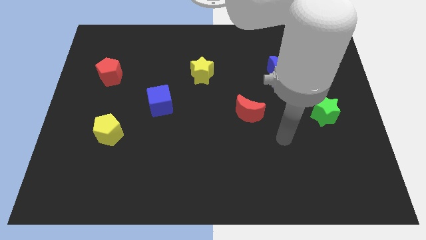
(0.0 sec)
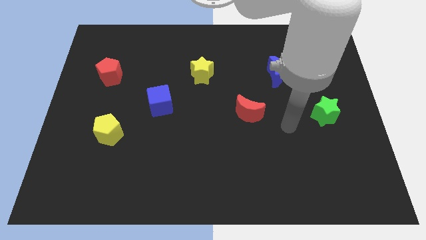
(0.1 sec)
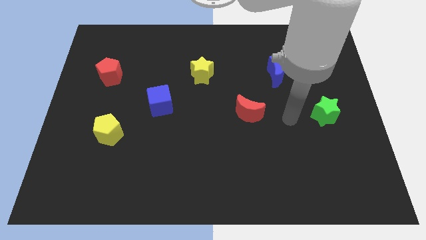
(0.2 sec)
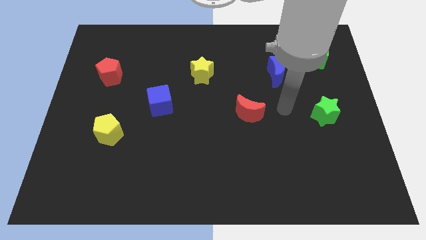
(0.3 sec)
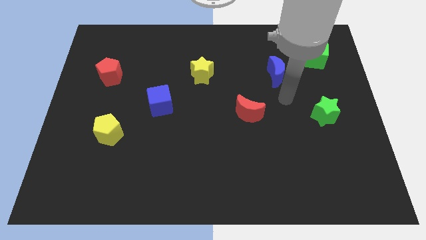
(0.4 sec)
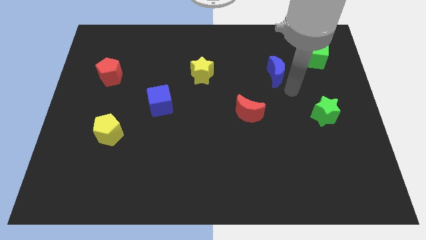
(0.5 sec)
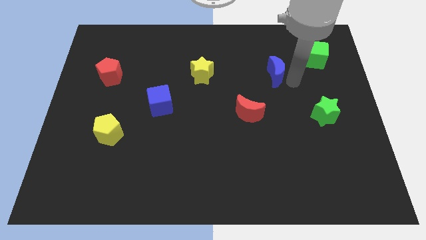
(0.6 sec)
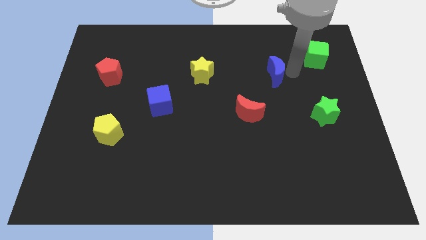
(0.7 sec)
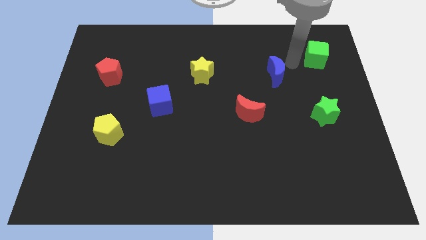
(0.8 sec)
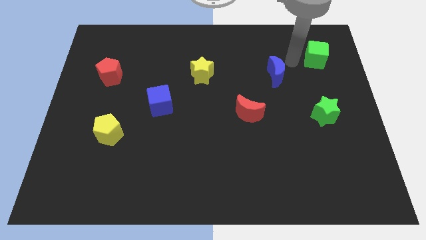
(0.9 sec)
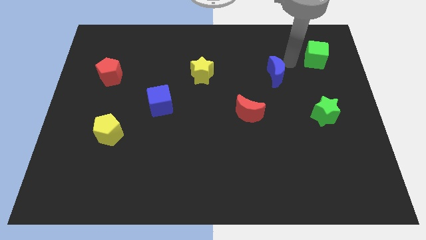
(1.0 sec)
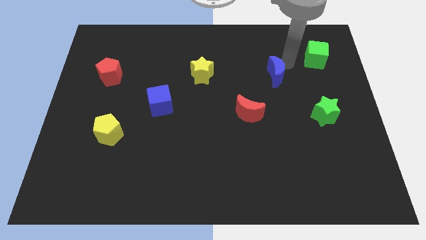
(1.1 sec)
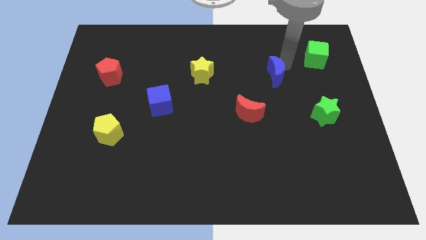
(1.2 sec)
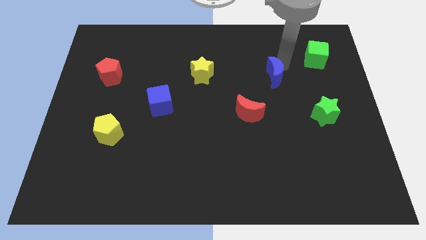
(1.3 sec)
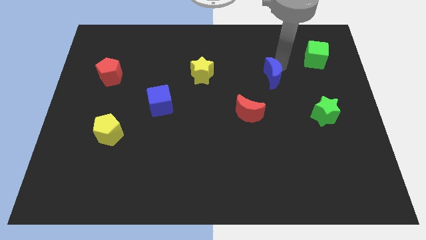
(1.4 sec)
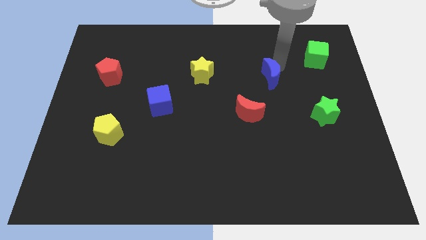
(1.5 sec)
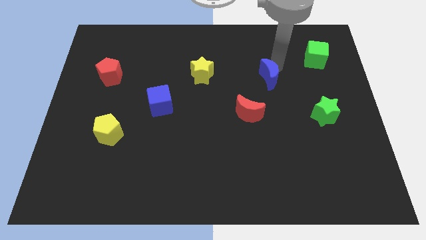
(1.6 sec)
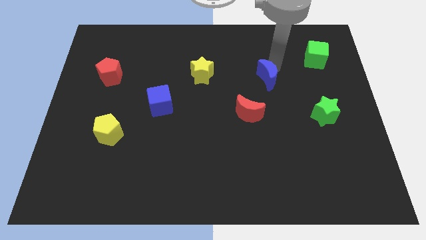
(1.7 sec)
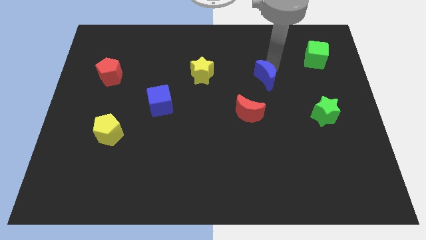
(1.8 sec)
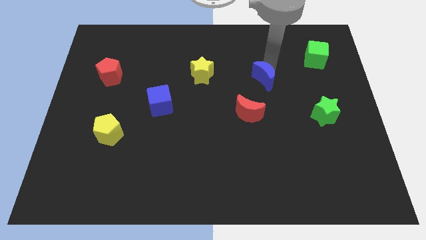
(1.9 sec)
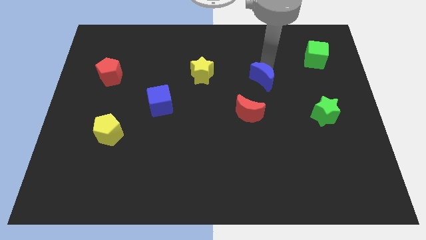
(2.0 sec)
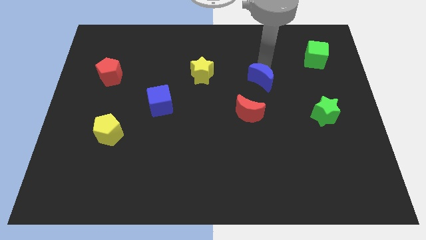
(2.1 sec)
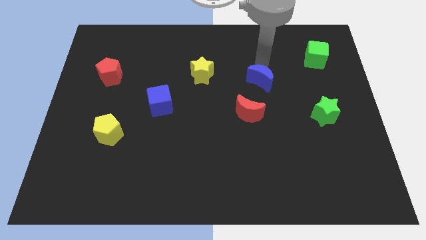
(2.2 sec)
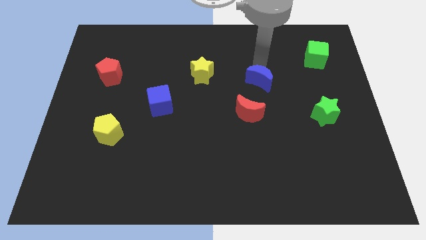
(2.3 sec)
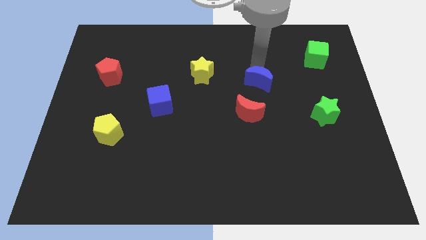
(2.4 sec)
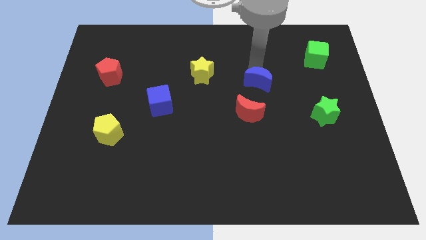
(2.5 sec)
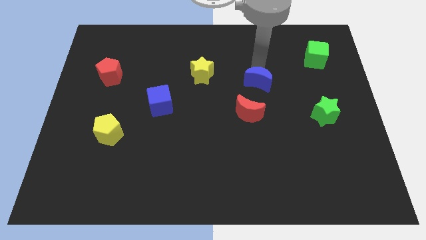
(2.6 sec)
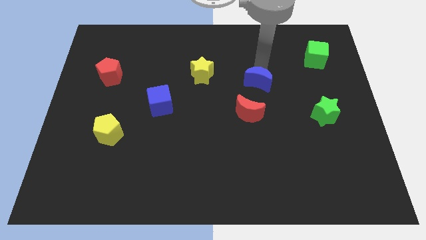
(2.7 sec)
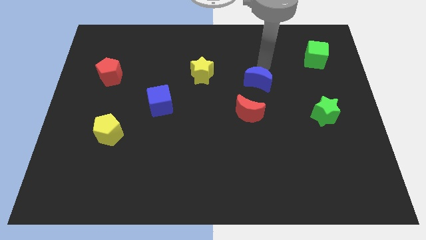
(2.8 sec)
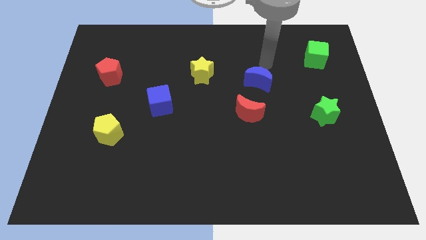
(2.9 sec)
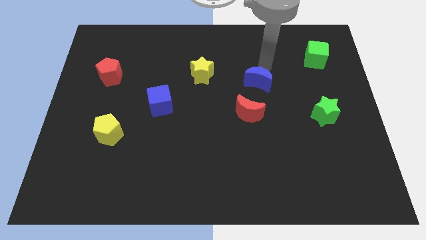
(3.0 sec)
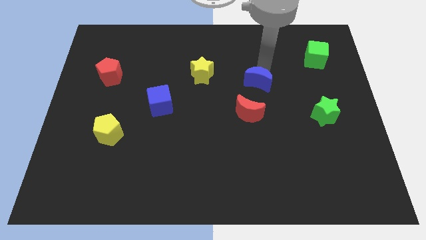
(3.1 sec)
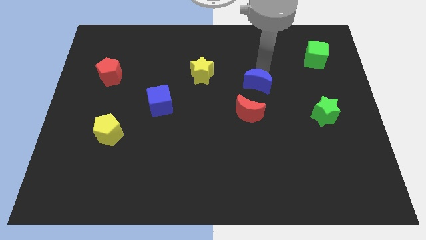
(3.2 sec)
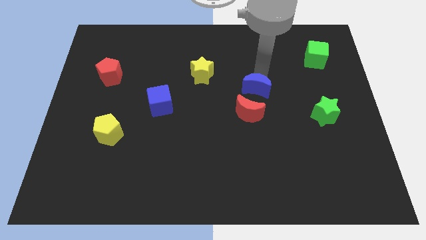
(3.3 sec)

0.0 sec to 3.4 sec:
move the blue moon a bit down and left

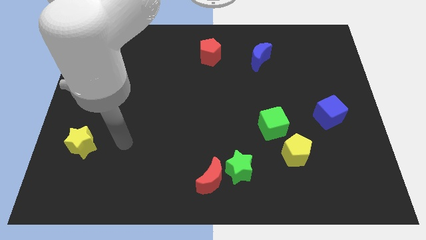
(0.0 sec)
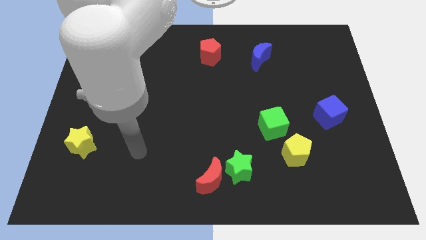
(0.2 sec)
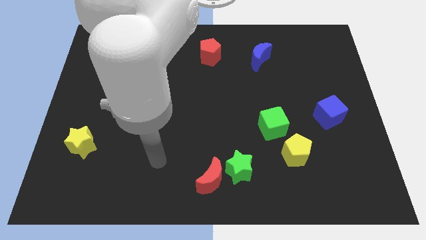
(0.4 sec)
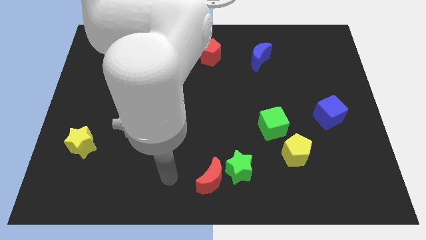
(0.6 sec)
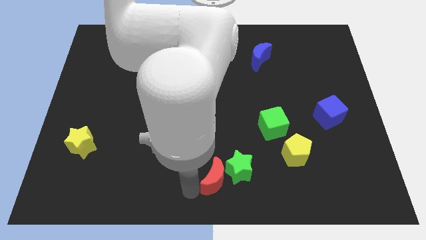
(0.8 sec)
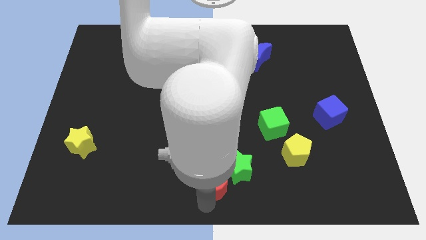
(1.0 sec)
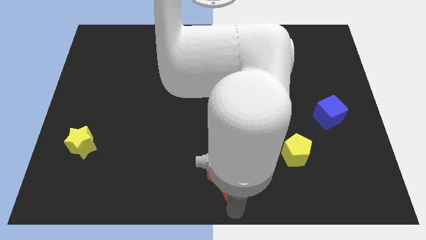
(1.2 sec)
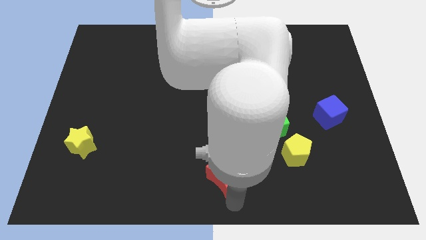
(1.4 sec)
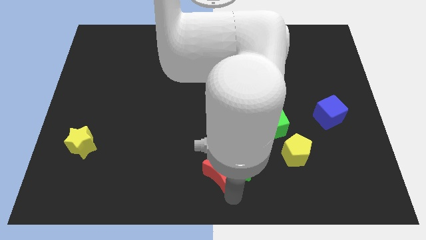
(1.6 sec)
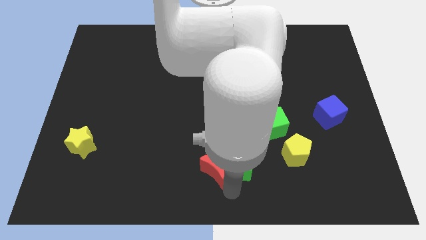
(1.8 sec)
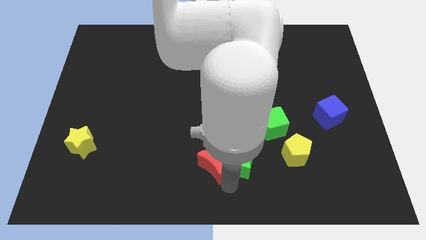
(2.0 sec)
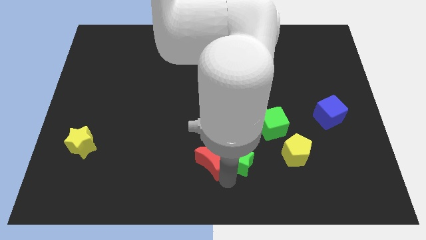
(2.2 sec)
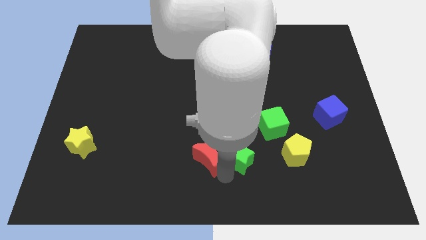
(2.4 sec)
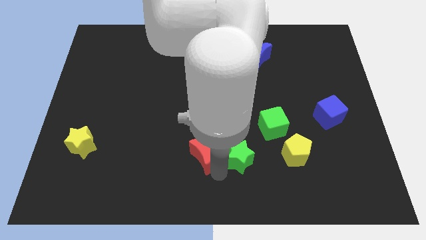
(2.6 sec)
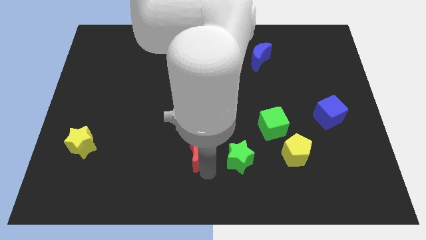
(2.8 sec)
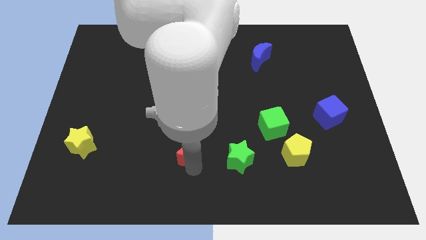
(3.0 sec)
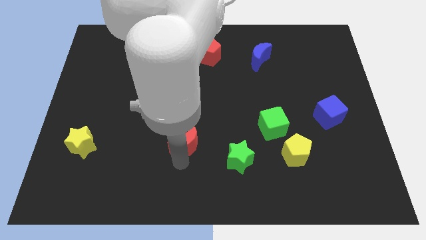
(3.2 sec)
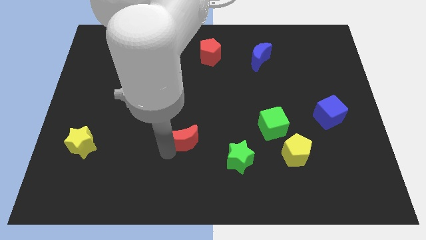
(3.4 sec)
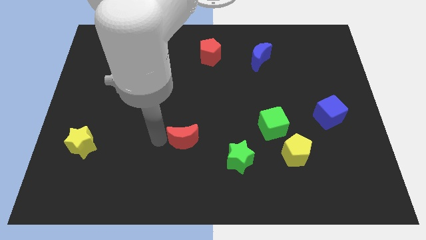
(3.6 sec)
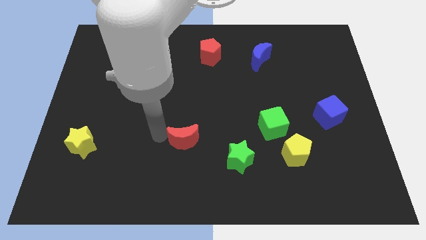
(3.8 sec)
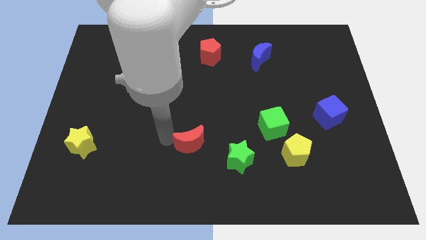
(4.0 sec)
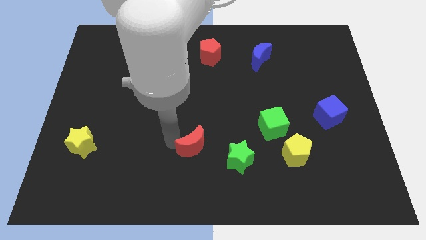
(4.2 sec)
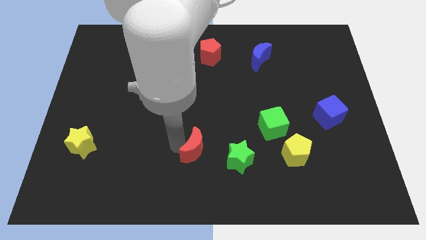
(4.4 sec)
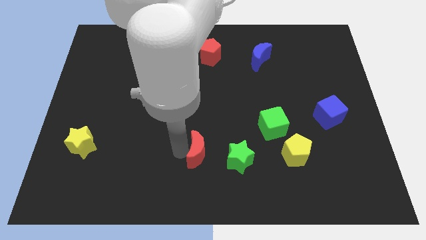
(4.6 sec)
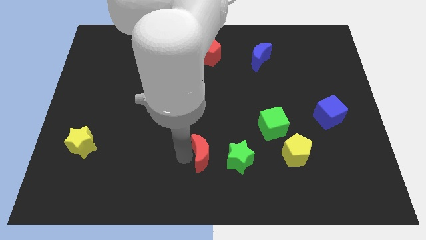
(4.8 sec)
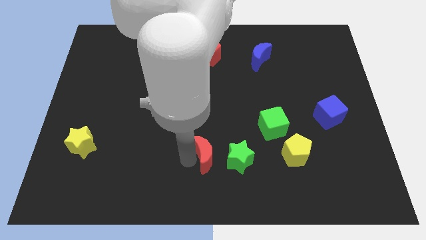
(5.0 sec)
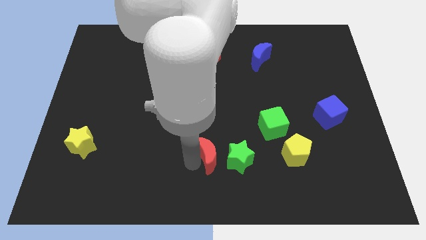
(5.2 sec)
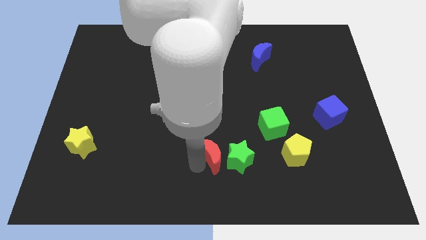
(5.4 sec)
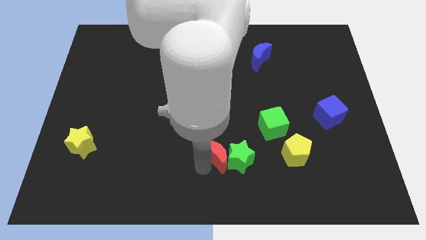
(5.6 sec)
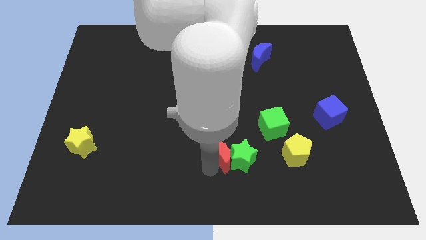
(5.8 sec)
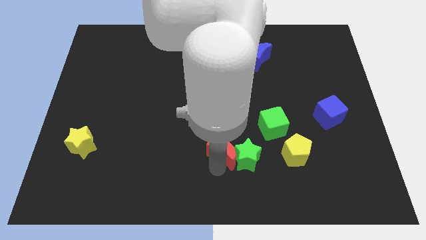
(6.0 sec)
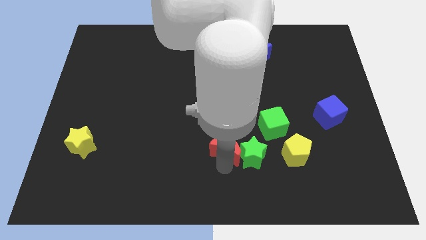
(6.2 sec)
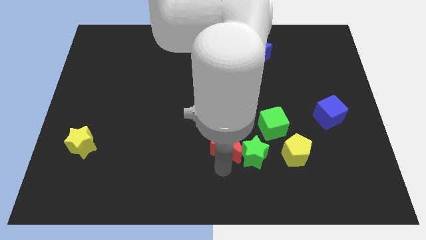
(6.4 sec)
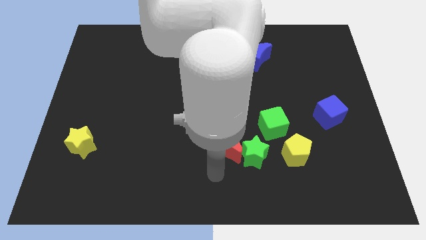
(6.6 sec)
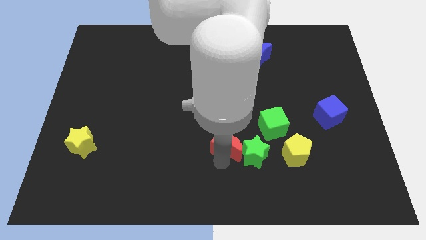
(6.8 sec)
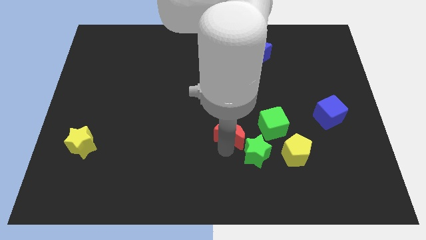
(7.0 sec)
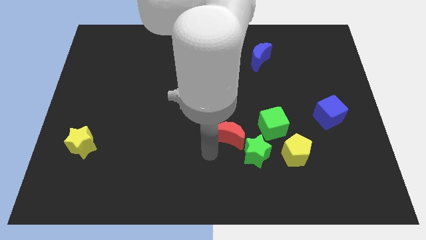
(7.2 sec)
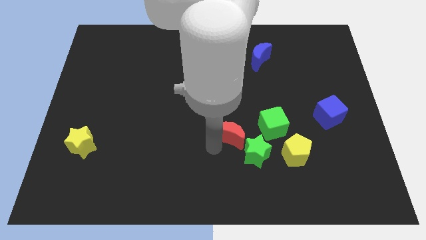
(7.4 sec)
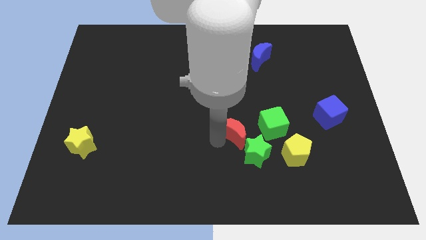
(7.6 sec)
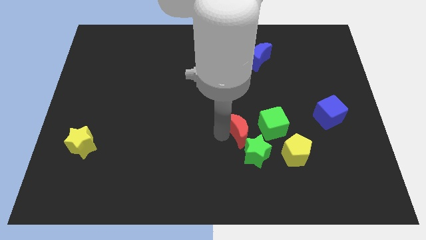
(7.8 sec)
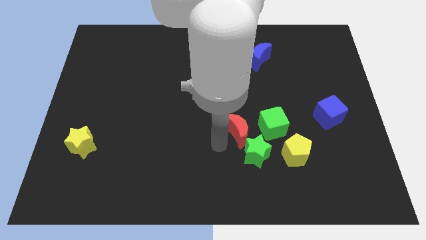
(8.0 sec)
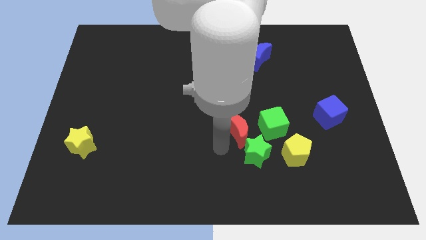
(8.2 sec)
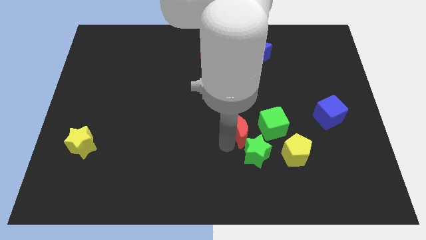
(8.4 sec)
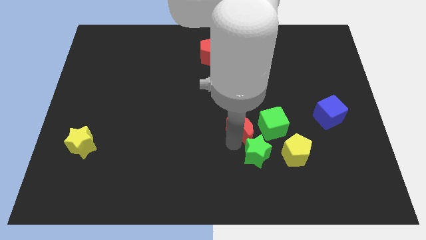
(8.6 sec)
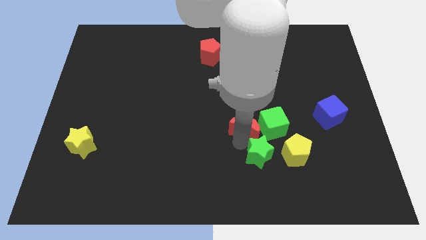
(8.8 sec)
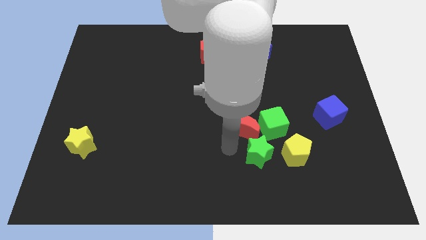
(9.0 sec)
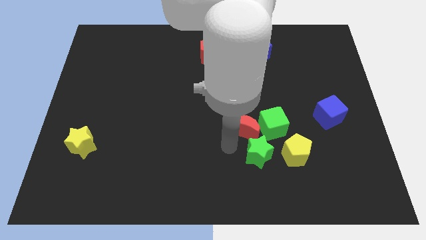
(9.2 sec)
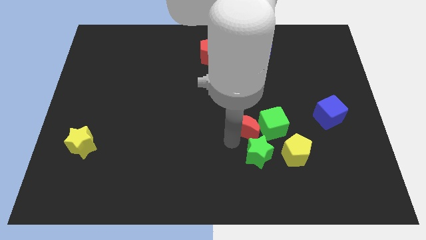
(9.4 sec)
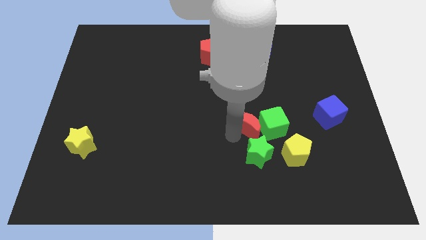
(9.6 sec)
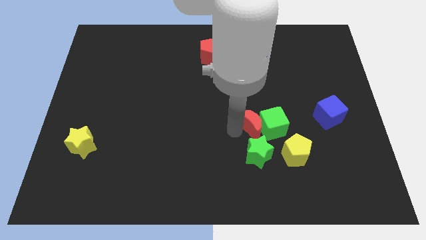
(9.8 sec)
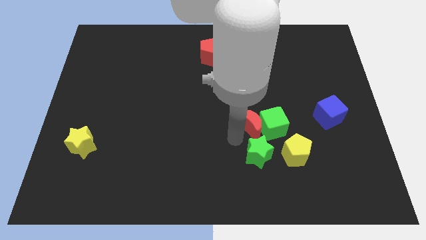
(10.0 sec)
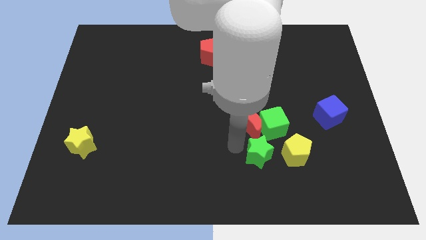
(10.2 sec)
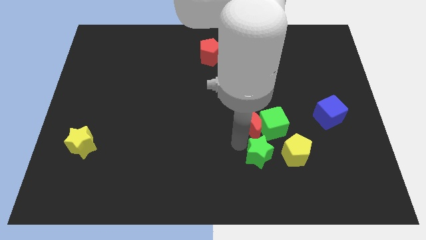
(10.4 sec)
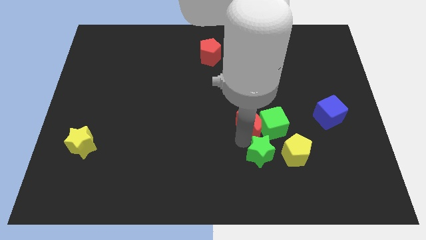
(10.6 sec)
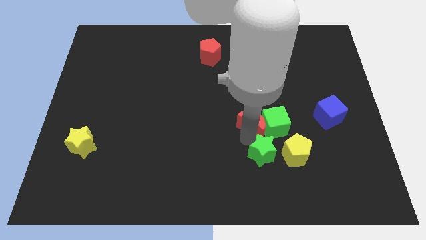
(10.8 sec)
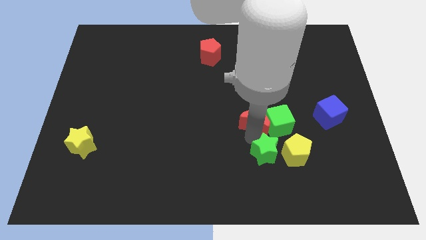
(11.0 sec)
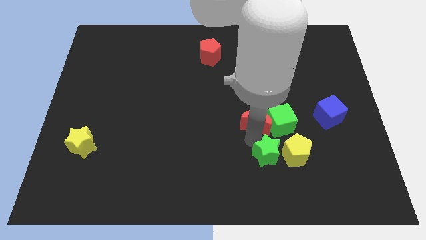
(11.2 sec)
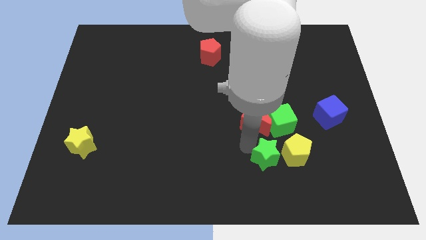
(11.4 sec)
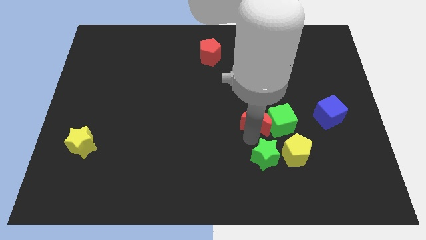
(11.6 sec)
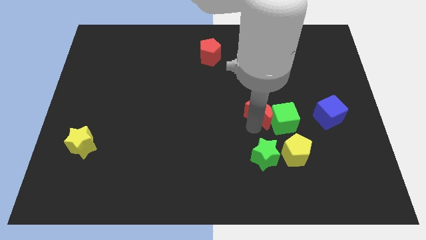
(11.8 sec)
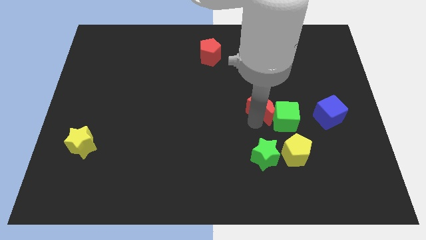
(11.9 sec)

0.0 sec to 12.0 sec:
push the red moon diagonally upwards and to the right
